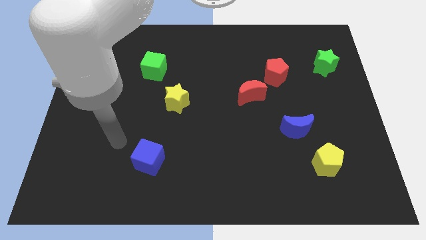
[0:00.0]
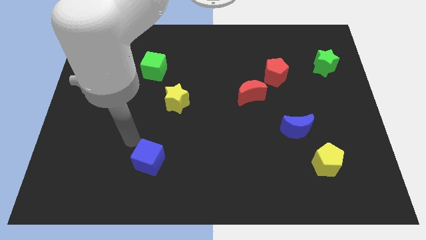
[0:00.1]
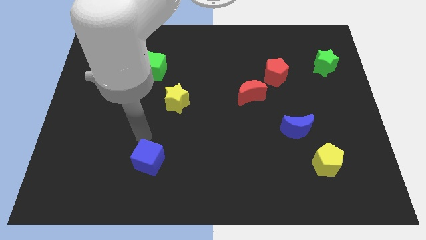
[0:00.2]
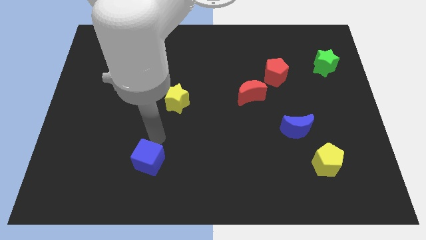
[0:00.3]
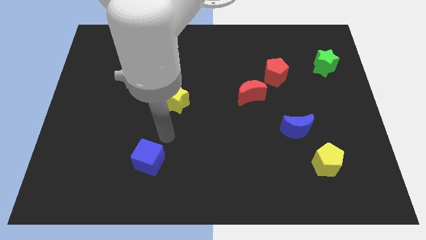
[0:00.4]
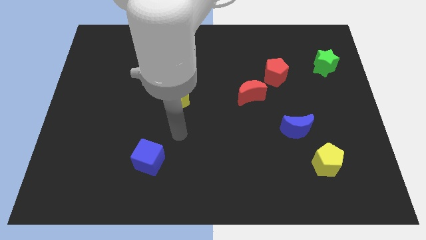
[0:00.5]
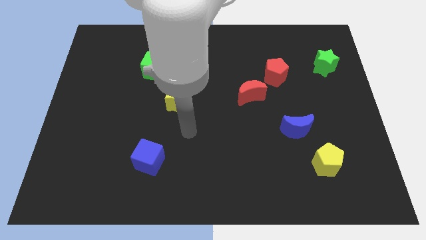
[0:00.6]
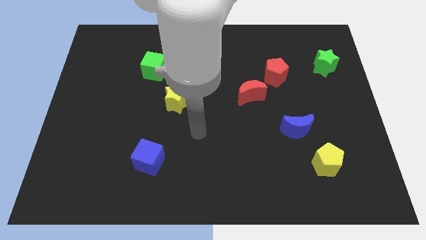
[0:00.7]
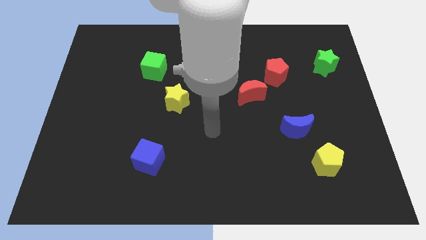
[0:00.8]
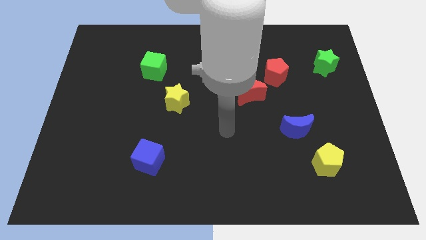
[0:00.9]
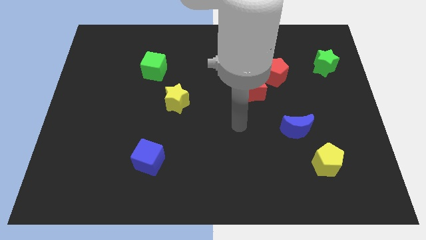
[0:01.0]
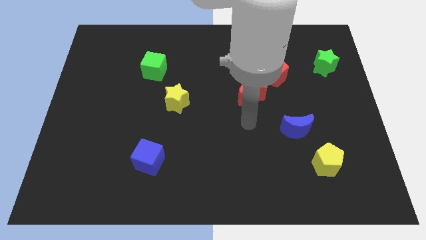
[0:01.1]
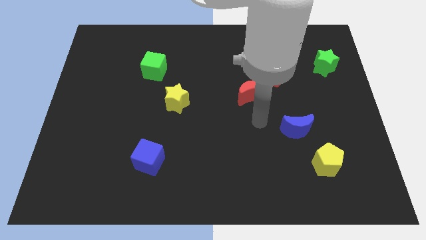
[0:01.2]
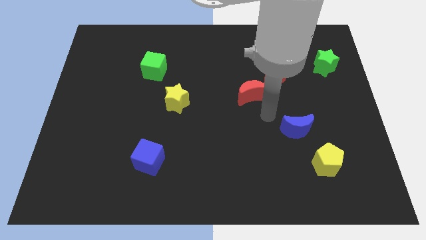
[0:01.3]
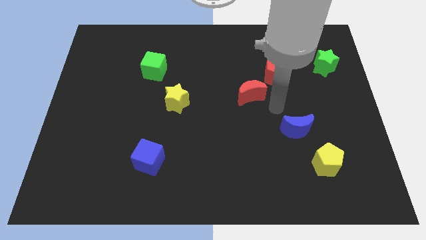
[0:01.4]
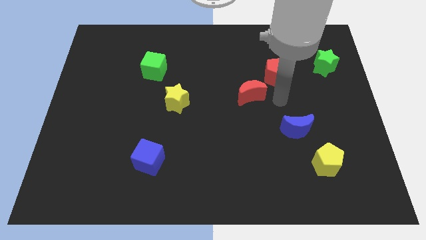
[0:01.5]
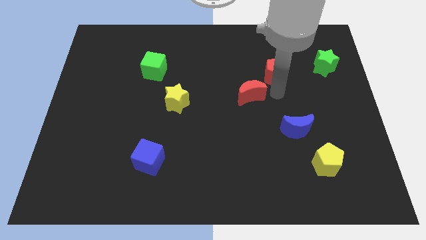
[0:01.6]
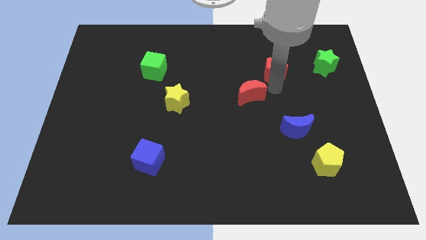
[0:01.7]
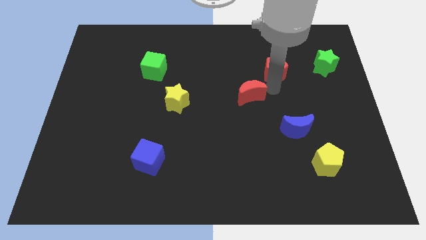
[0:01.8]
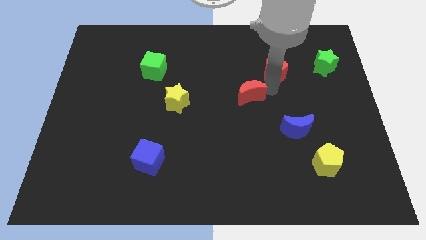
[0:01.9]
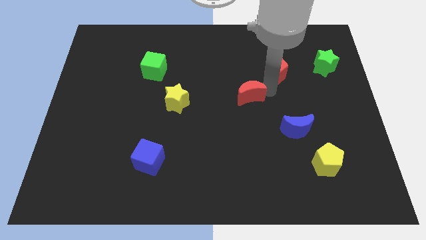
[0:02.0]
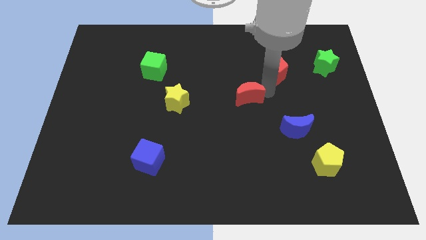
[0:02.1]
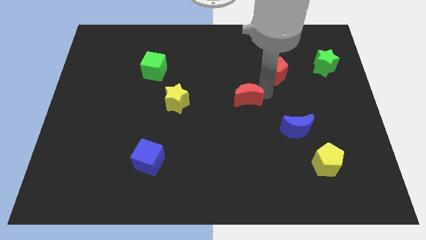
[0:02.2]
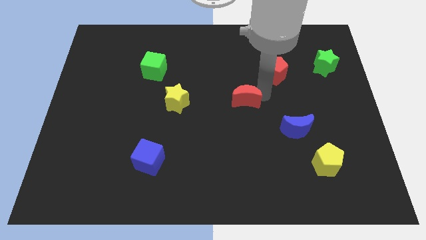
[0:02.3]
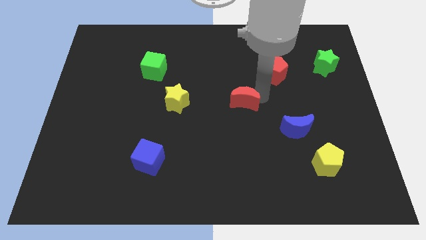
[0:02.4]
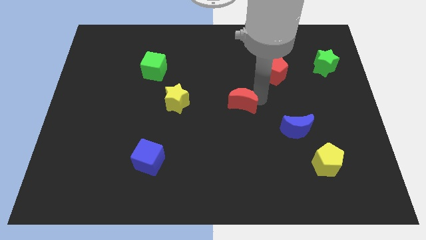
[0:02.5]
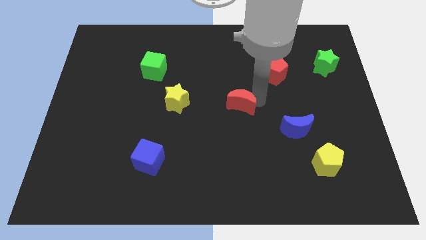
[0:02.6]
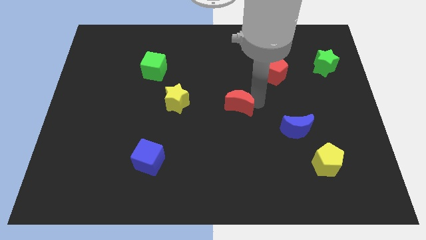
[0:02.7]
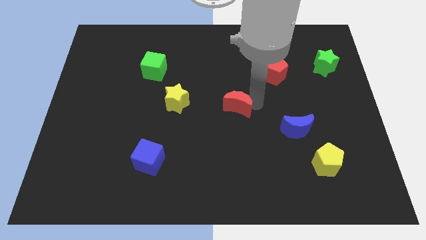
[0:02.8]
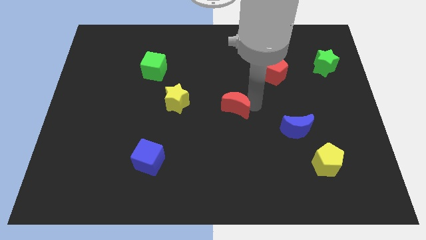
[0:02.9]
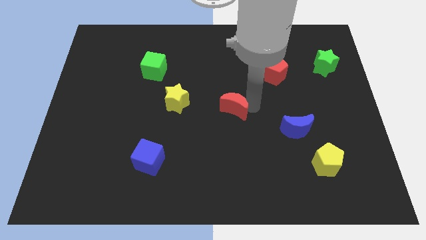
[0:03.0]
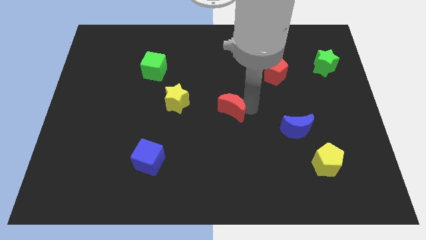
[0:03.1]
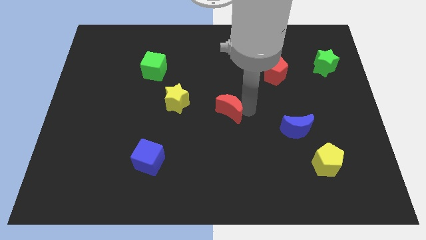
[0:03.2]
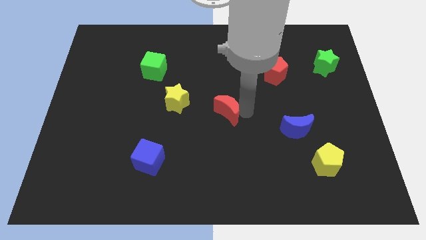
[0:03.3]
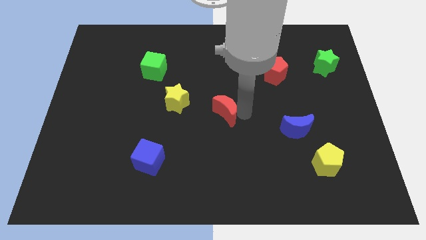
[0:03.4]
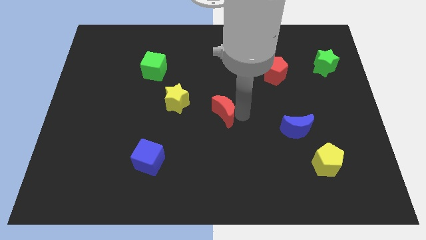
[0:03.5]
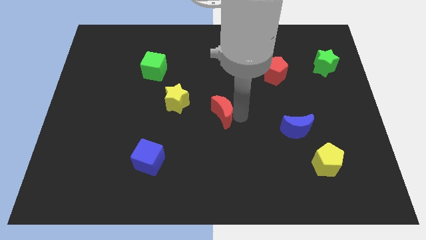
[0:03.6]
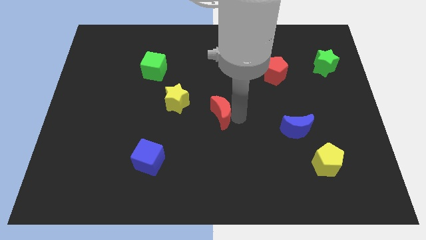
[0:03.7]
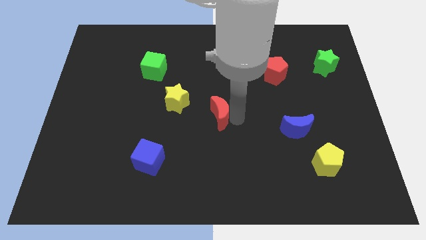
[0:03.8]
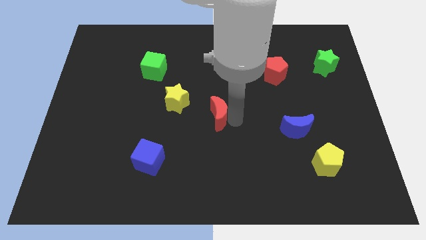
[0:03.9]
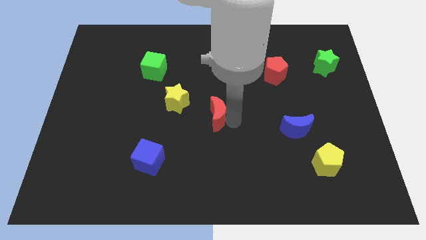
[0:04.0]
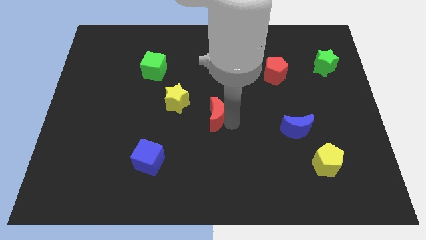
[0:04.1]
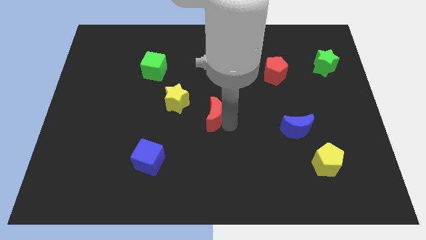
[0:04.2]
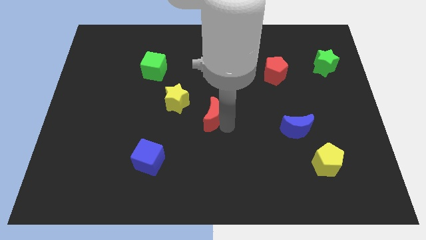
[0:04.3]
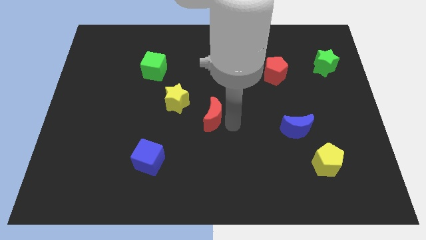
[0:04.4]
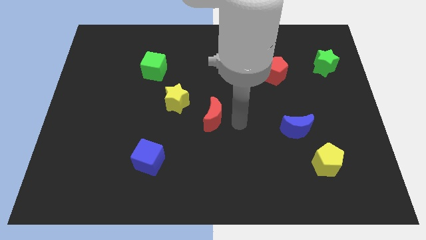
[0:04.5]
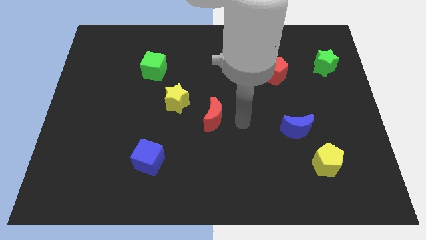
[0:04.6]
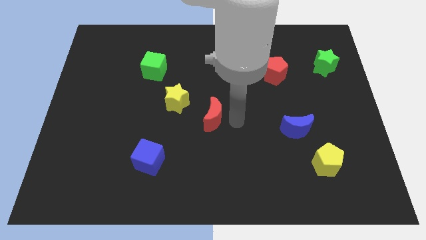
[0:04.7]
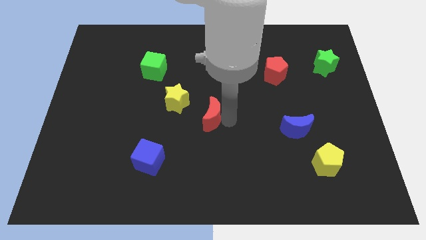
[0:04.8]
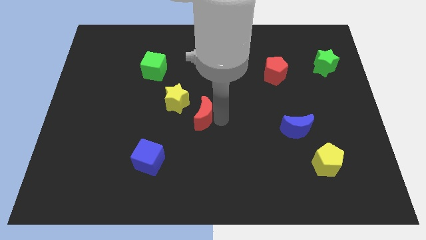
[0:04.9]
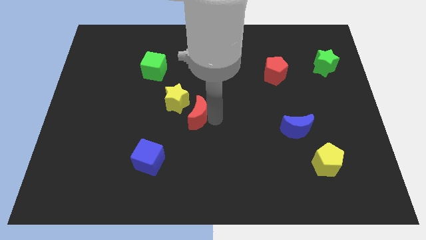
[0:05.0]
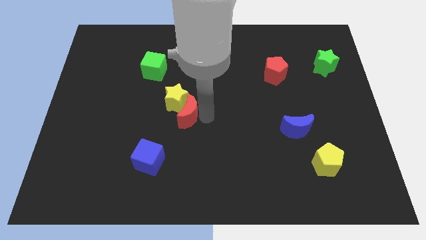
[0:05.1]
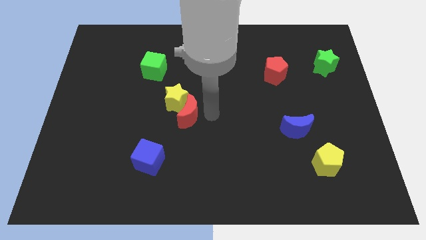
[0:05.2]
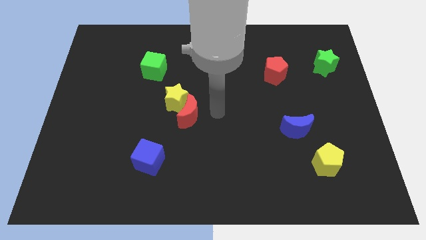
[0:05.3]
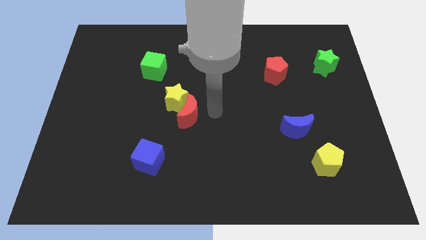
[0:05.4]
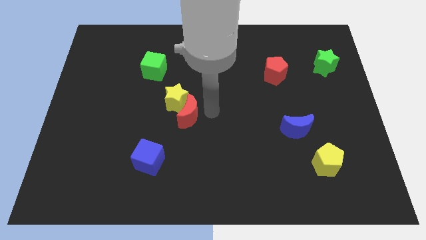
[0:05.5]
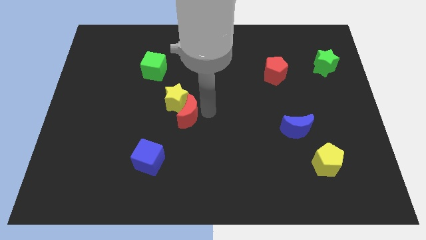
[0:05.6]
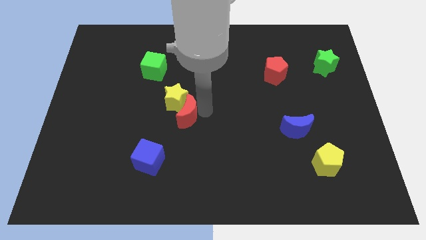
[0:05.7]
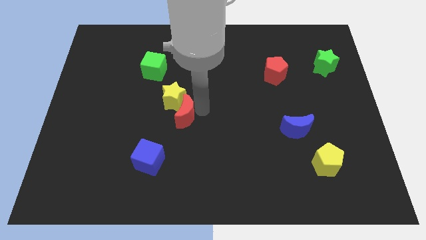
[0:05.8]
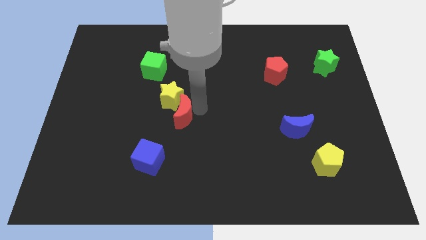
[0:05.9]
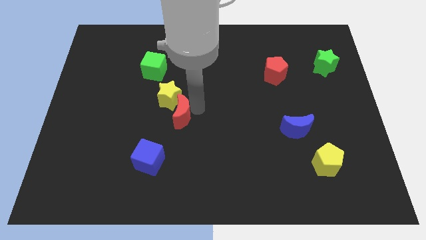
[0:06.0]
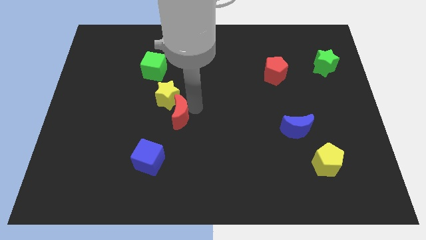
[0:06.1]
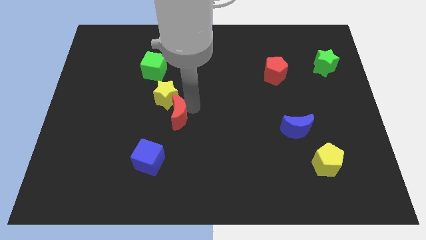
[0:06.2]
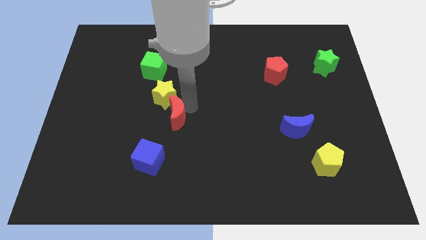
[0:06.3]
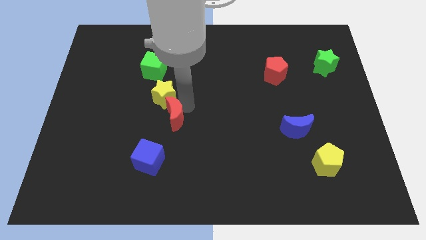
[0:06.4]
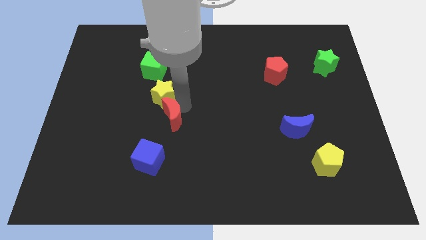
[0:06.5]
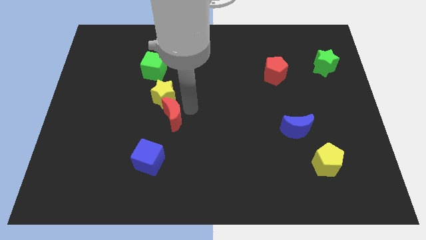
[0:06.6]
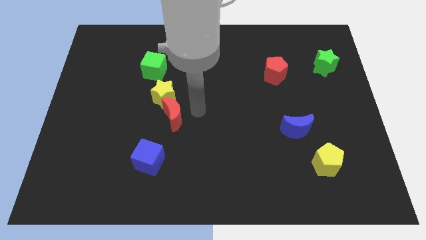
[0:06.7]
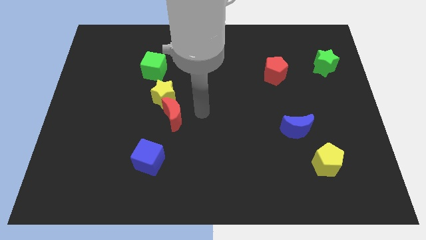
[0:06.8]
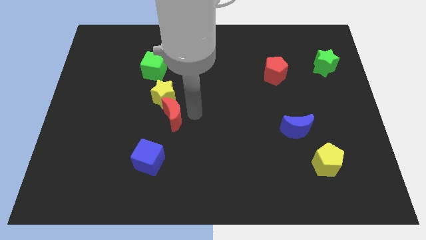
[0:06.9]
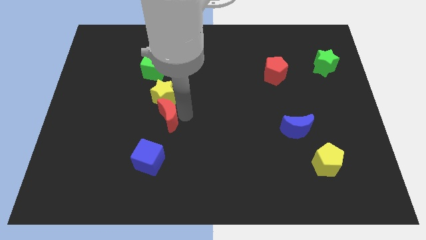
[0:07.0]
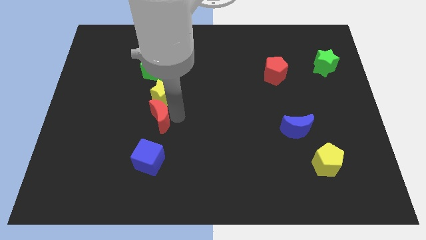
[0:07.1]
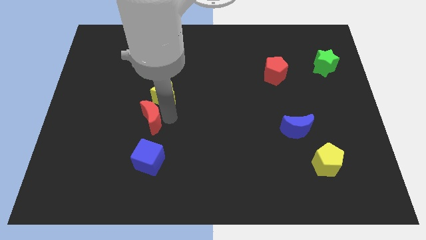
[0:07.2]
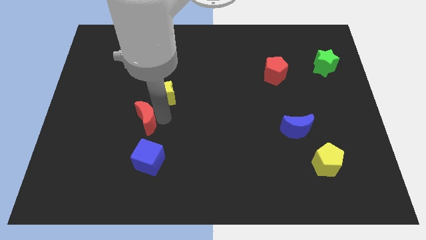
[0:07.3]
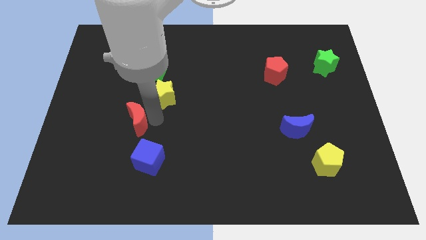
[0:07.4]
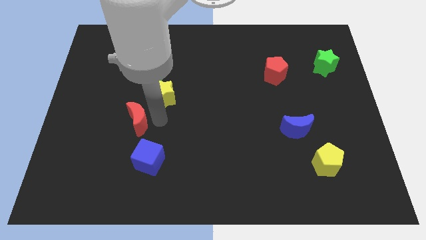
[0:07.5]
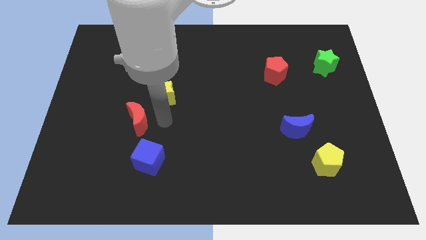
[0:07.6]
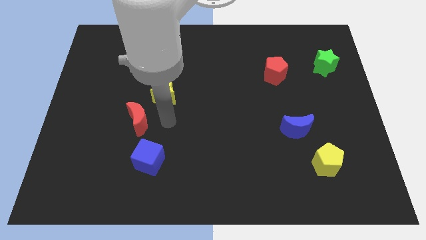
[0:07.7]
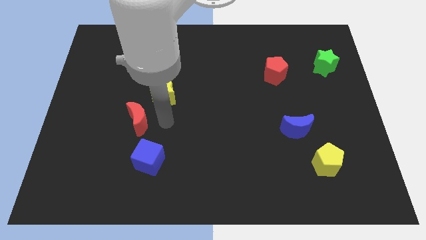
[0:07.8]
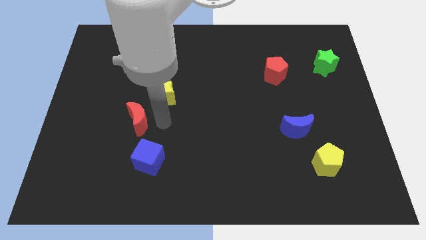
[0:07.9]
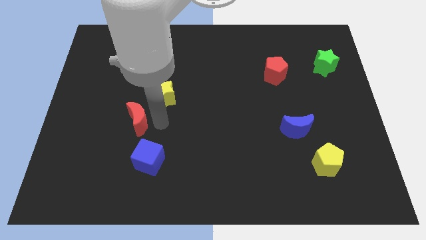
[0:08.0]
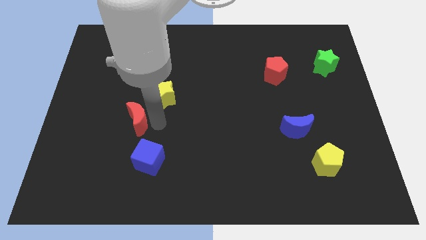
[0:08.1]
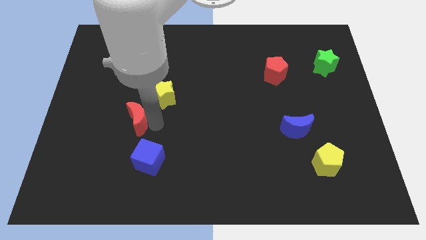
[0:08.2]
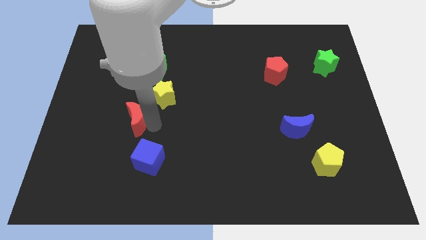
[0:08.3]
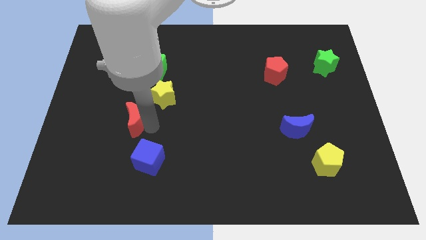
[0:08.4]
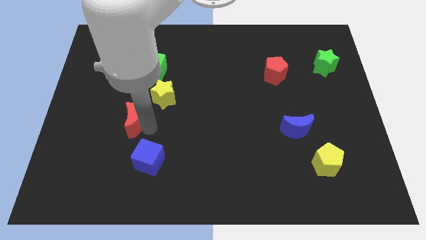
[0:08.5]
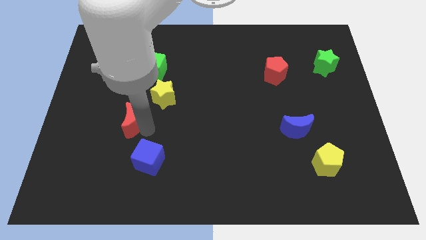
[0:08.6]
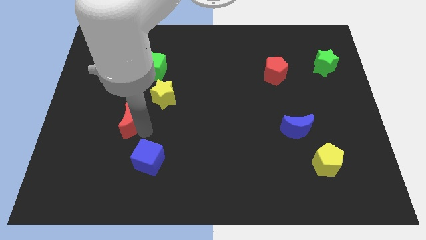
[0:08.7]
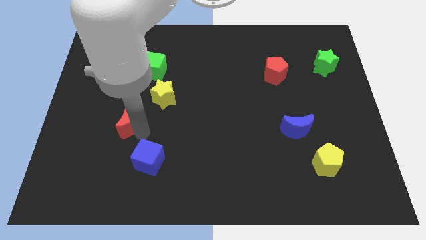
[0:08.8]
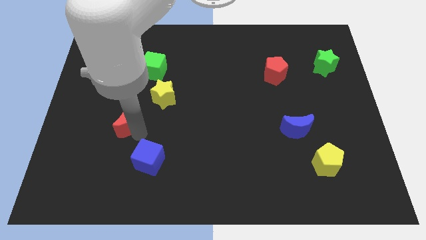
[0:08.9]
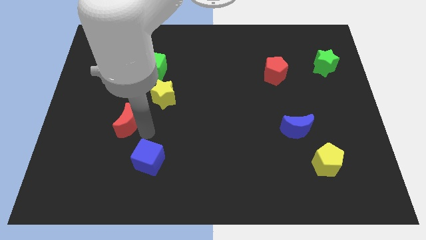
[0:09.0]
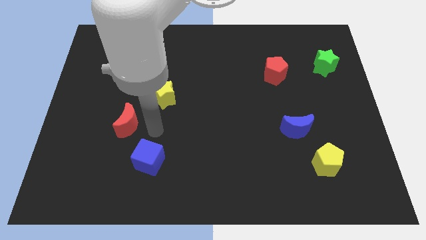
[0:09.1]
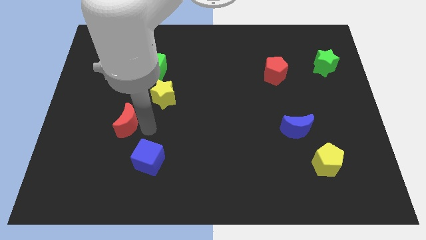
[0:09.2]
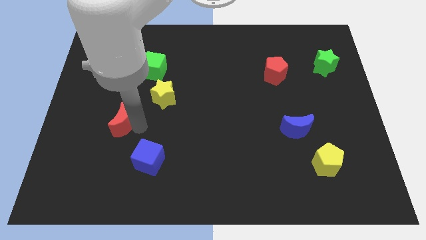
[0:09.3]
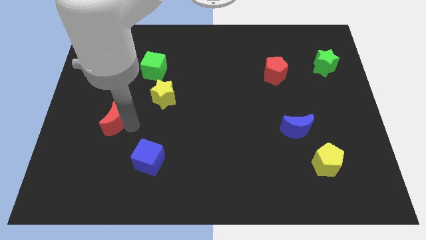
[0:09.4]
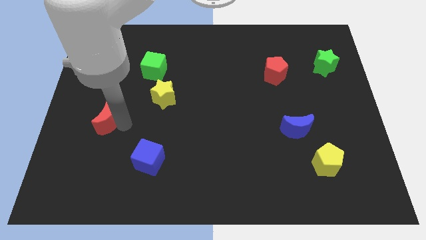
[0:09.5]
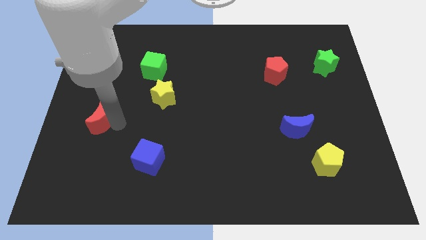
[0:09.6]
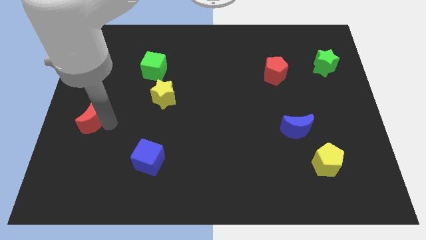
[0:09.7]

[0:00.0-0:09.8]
move the red moon to the left side
